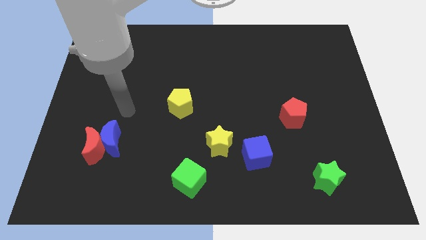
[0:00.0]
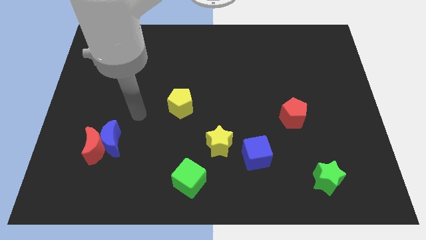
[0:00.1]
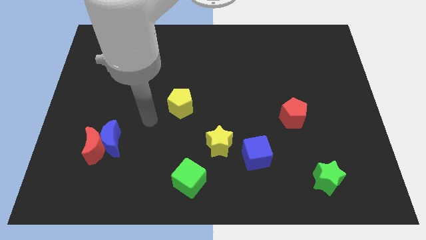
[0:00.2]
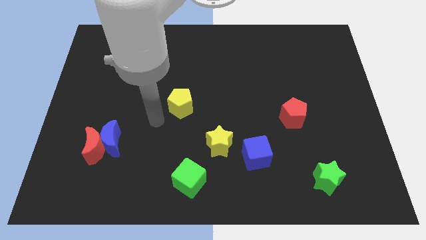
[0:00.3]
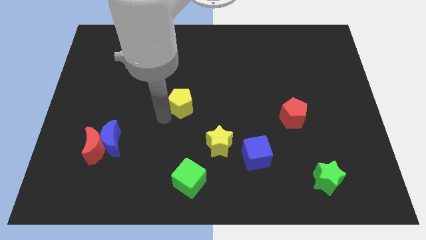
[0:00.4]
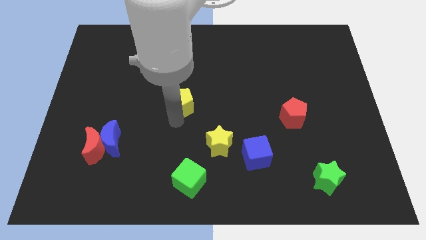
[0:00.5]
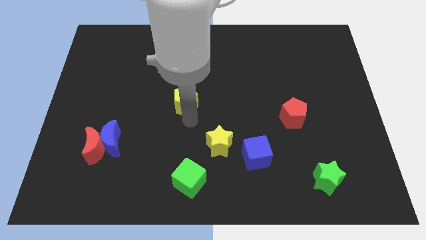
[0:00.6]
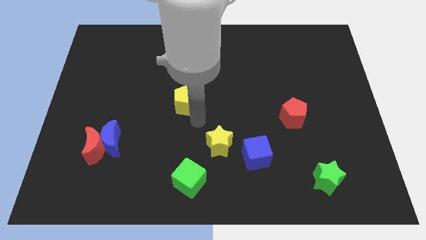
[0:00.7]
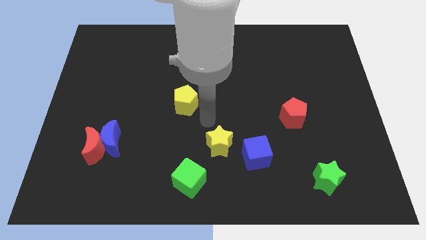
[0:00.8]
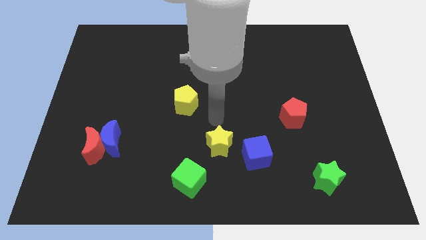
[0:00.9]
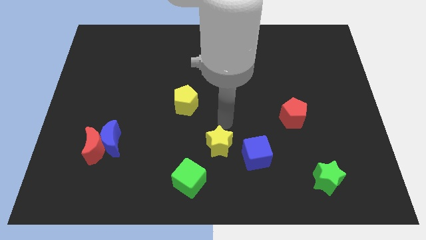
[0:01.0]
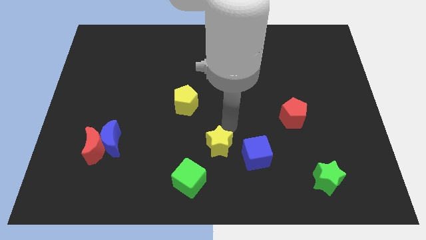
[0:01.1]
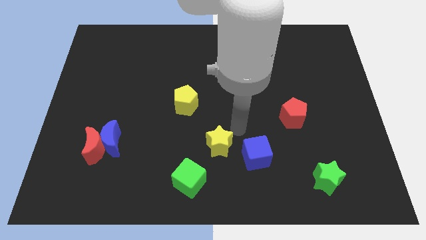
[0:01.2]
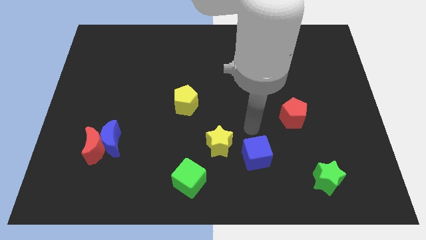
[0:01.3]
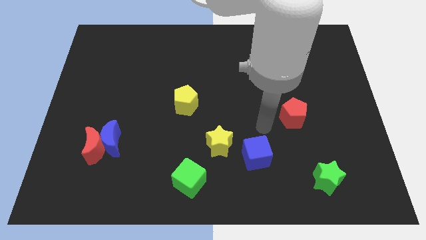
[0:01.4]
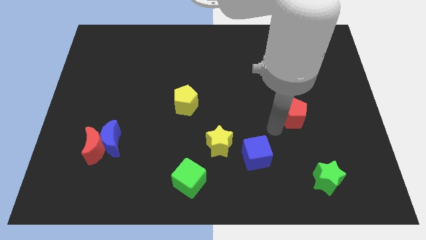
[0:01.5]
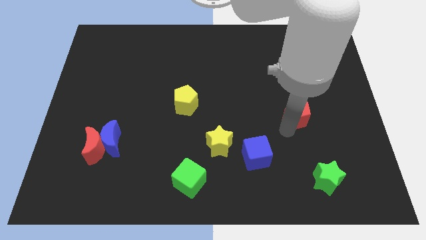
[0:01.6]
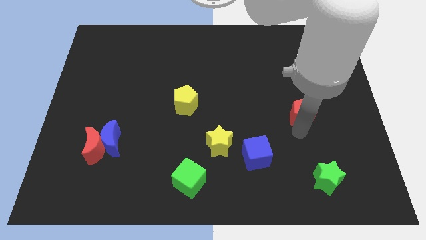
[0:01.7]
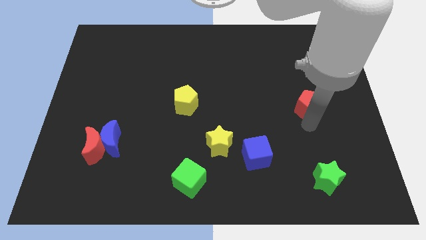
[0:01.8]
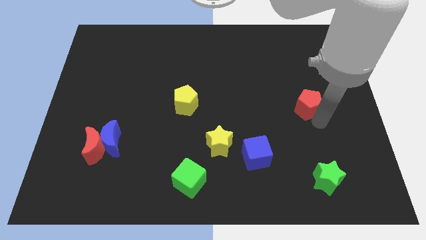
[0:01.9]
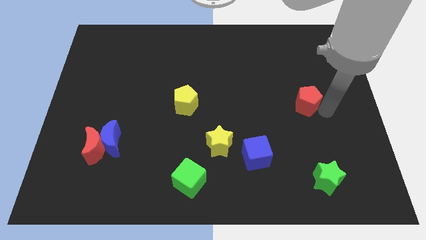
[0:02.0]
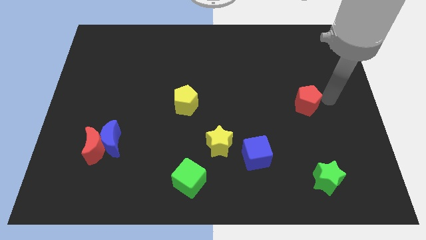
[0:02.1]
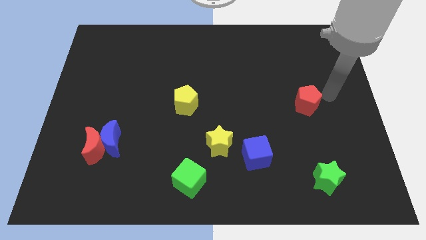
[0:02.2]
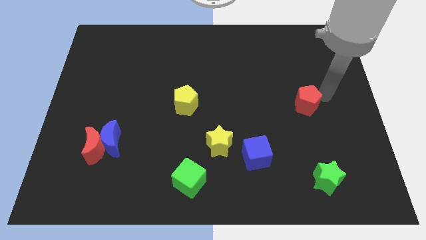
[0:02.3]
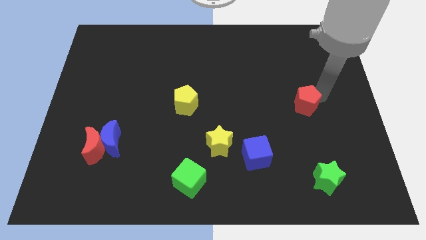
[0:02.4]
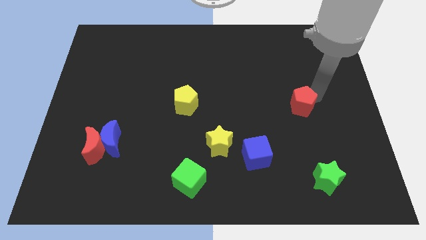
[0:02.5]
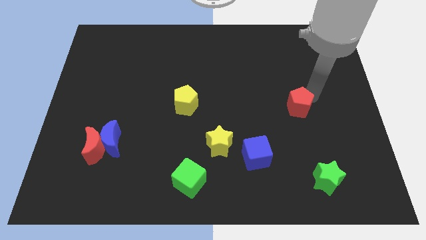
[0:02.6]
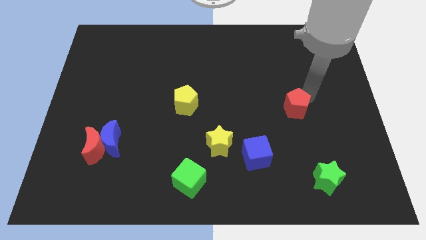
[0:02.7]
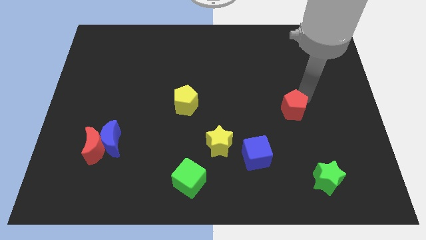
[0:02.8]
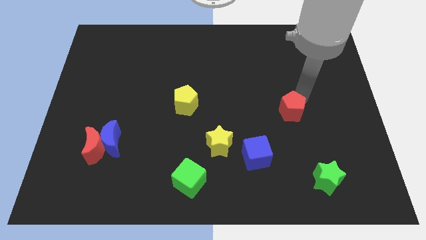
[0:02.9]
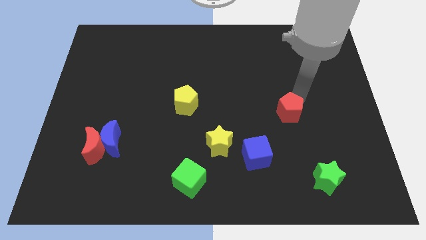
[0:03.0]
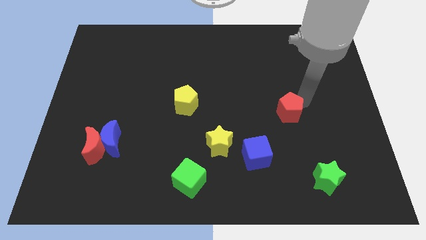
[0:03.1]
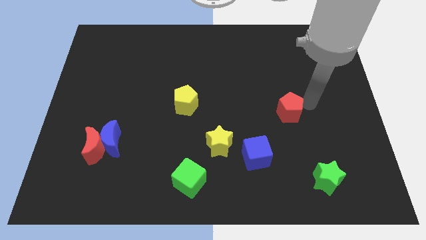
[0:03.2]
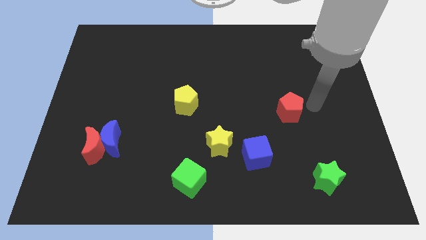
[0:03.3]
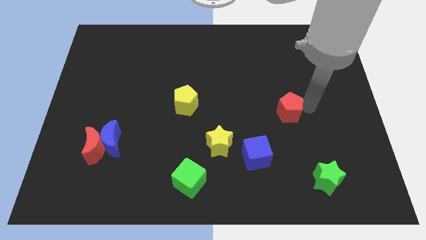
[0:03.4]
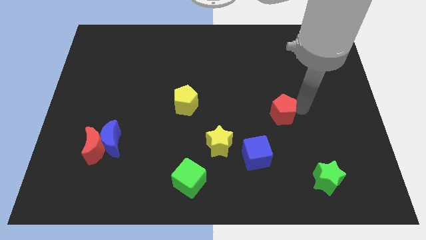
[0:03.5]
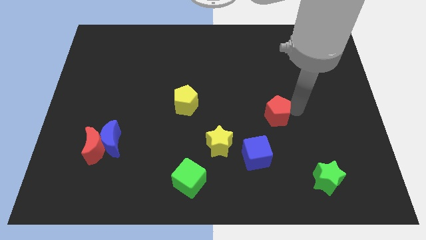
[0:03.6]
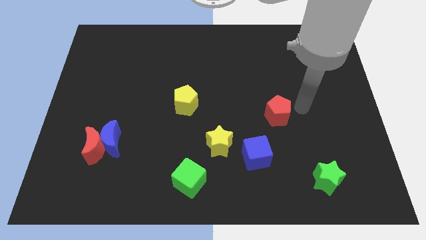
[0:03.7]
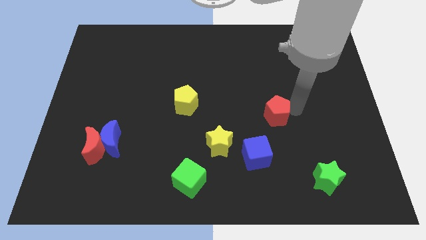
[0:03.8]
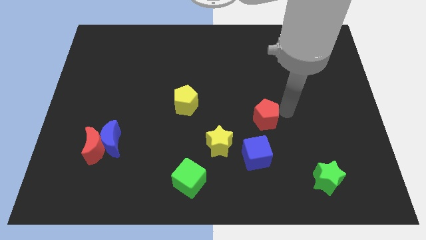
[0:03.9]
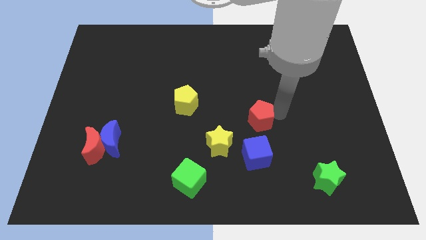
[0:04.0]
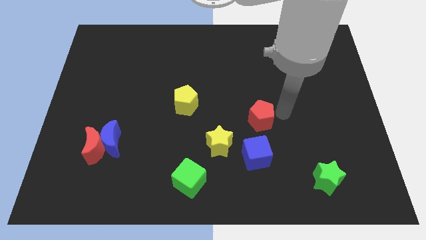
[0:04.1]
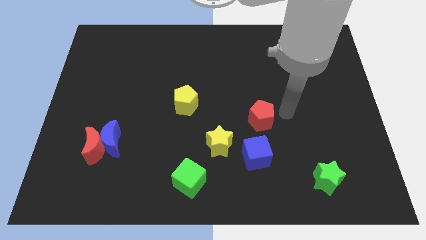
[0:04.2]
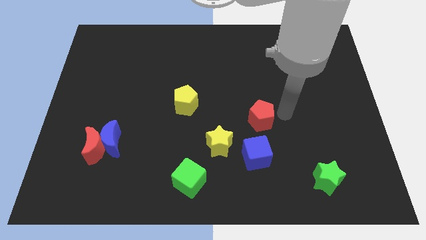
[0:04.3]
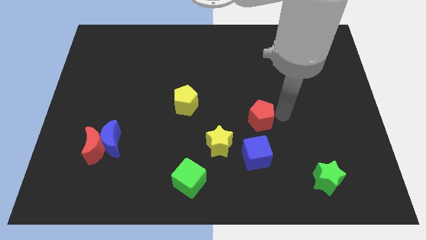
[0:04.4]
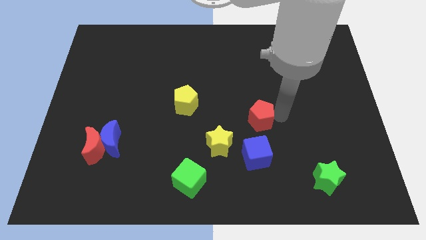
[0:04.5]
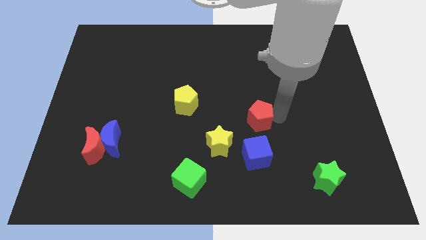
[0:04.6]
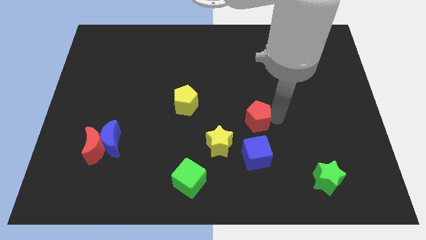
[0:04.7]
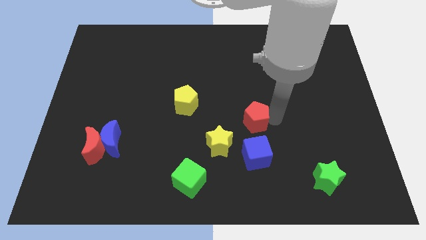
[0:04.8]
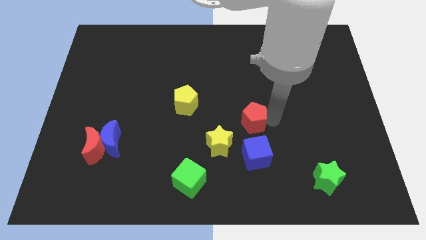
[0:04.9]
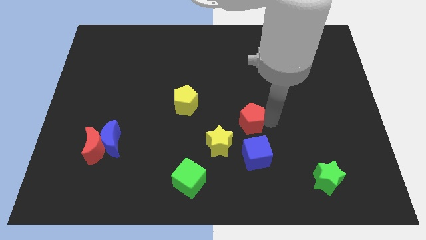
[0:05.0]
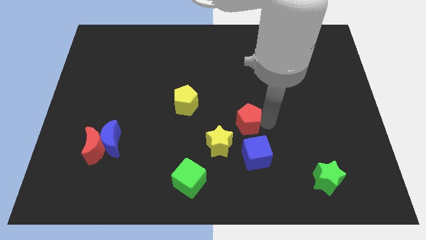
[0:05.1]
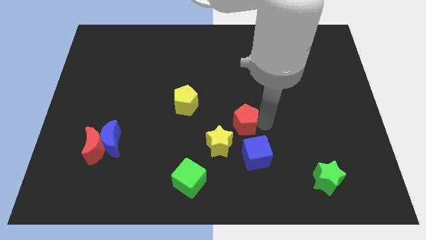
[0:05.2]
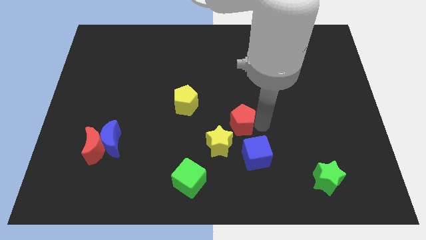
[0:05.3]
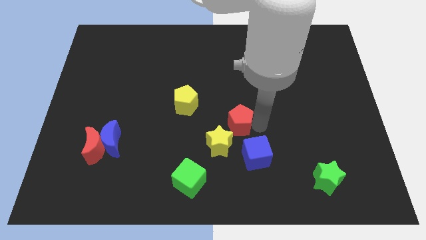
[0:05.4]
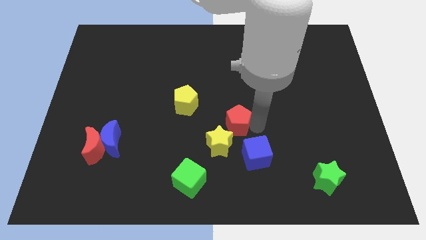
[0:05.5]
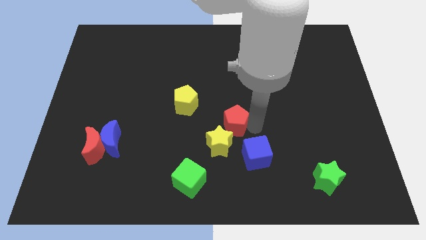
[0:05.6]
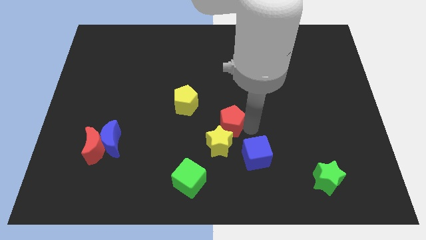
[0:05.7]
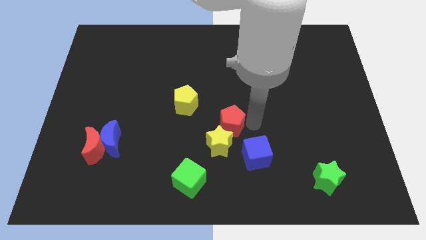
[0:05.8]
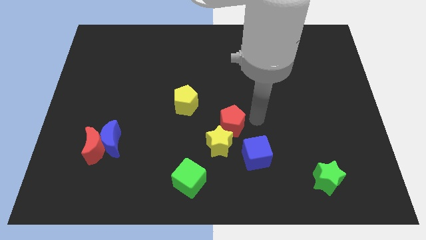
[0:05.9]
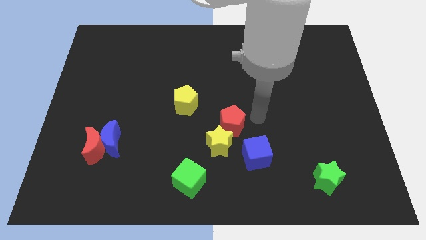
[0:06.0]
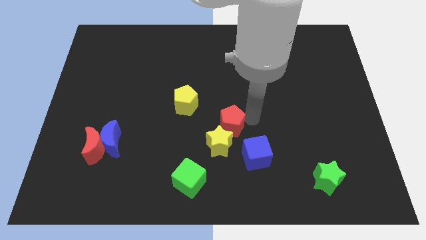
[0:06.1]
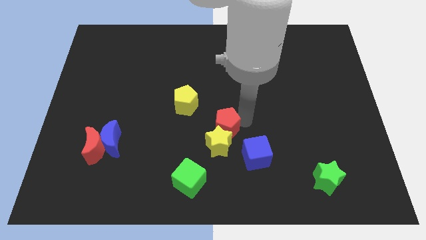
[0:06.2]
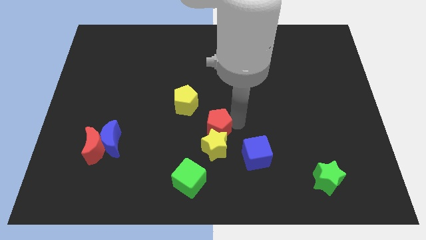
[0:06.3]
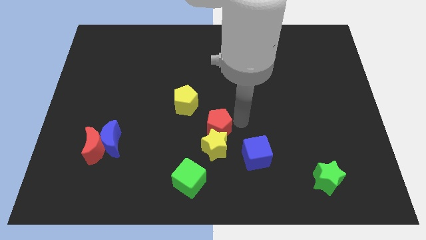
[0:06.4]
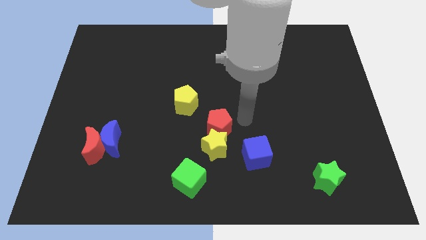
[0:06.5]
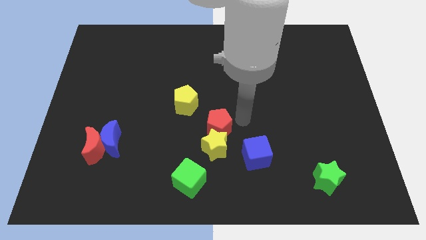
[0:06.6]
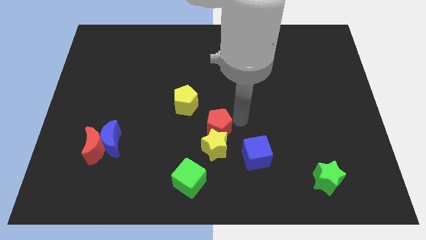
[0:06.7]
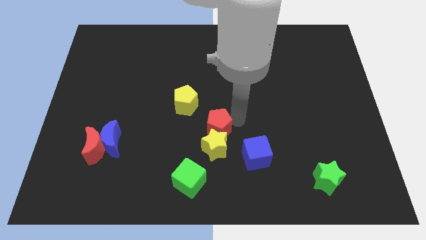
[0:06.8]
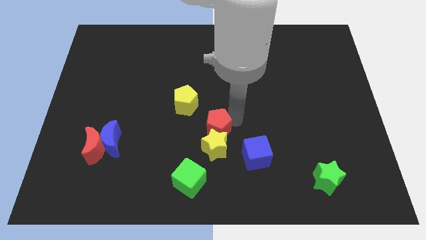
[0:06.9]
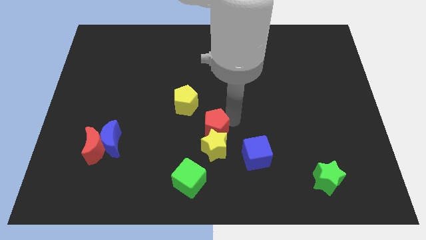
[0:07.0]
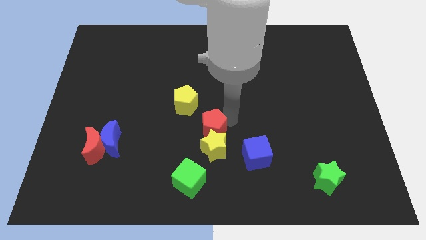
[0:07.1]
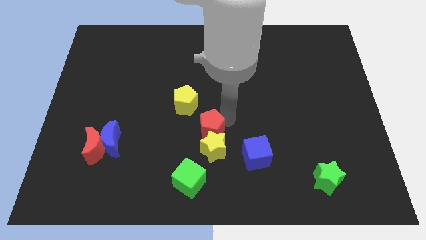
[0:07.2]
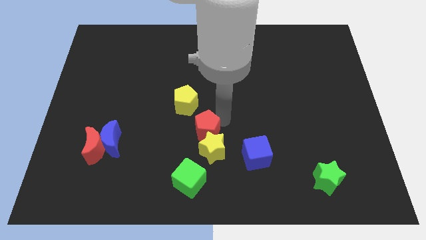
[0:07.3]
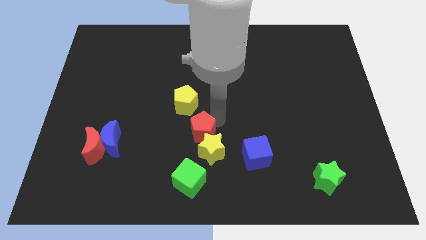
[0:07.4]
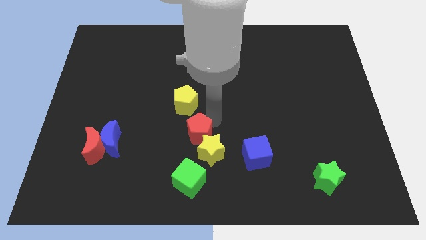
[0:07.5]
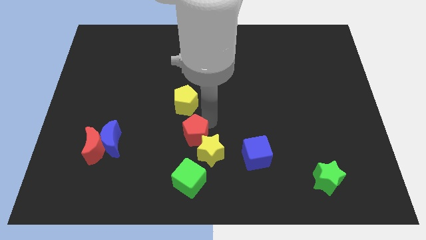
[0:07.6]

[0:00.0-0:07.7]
put the red pentagon just left of the yellow star
